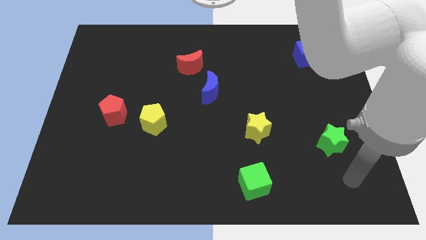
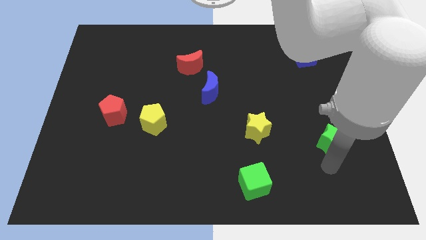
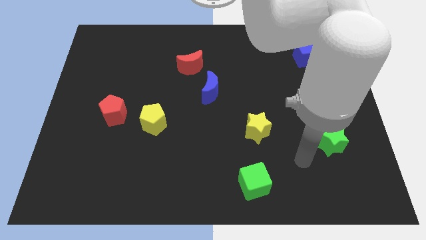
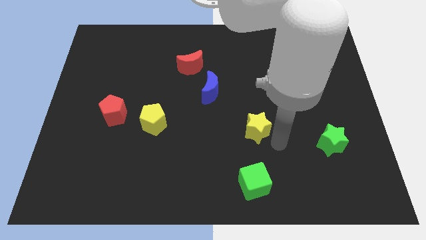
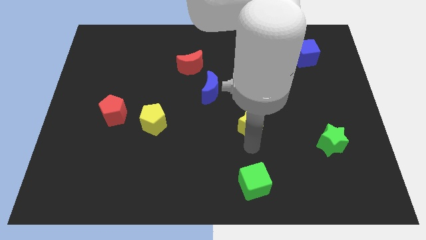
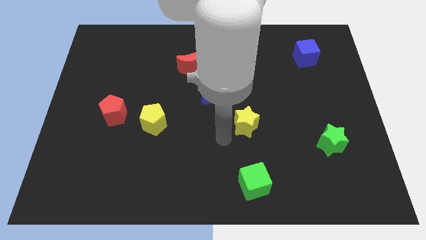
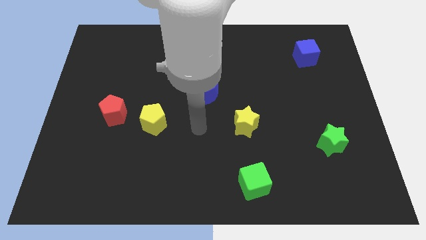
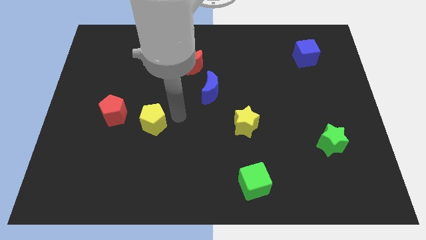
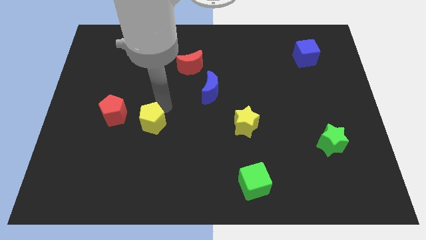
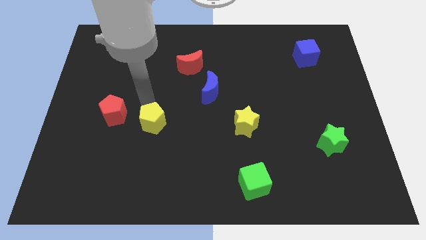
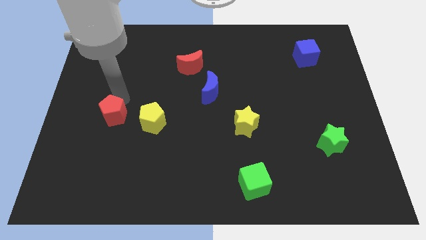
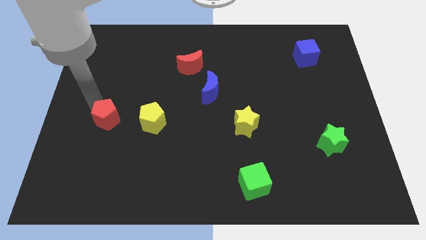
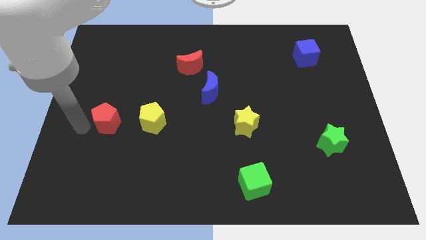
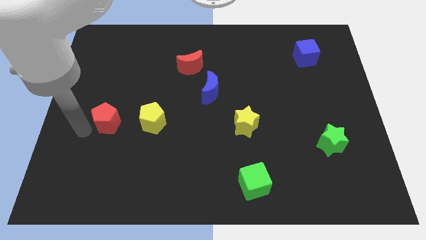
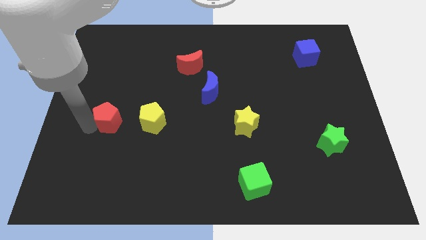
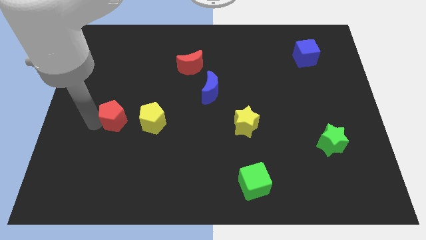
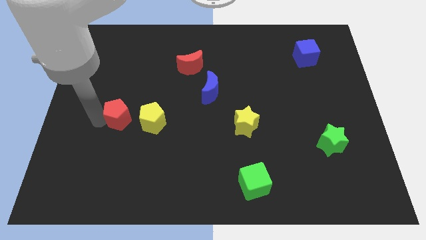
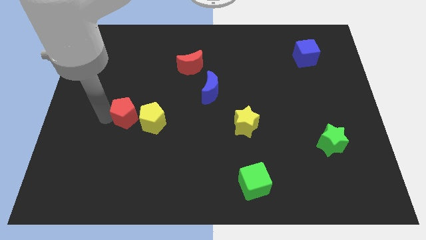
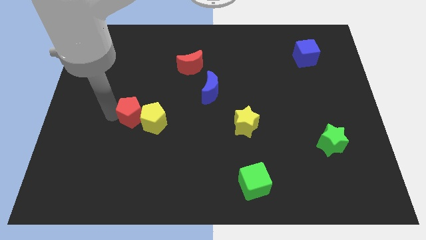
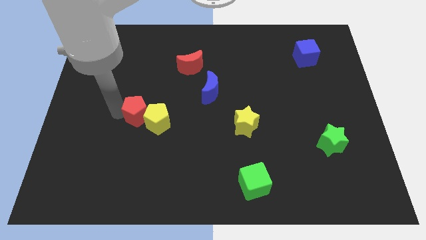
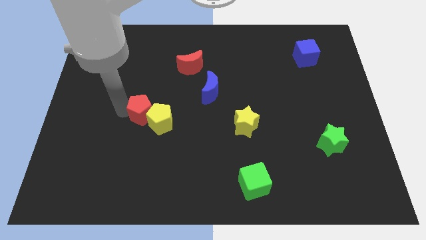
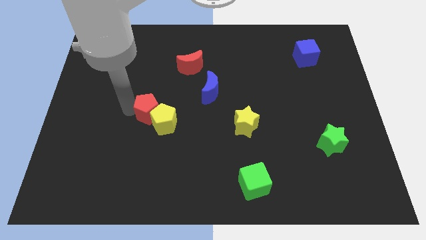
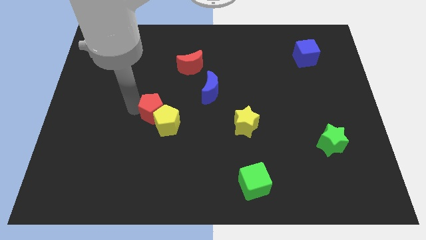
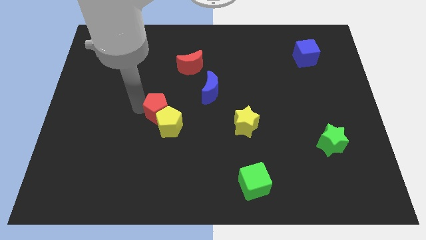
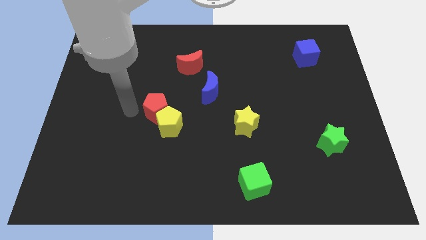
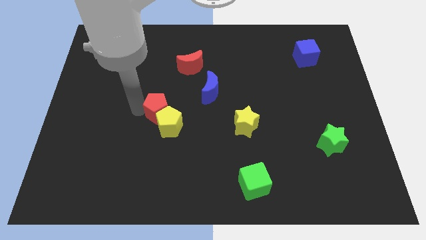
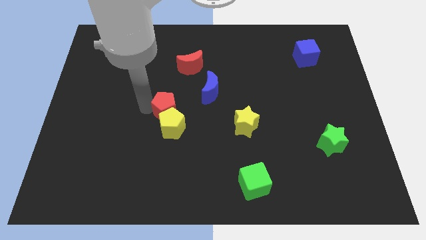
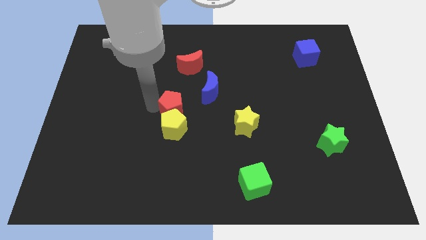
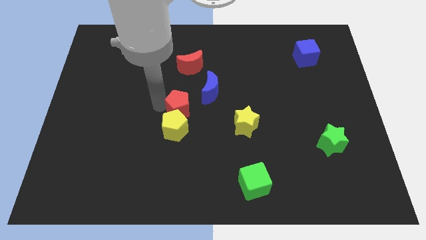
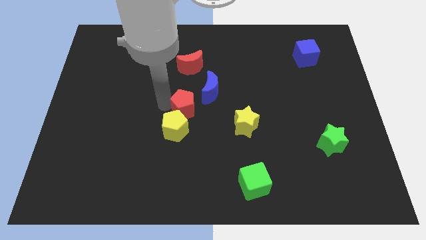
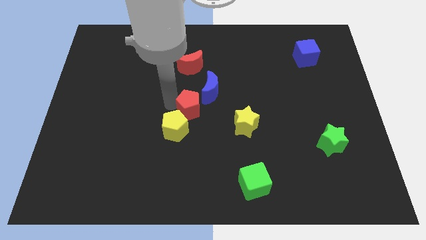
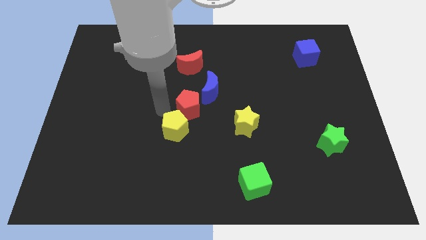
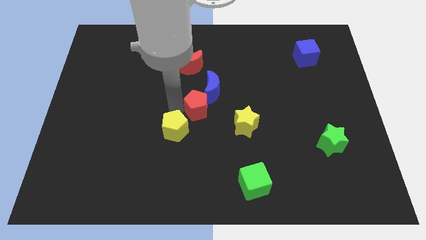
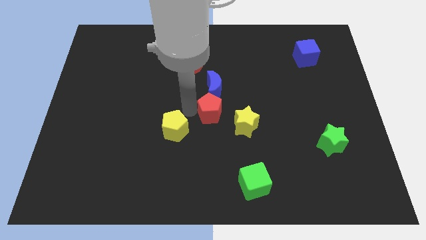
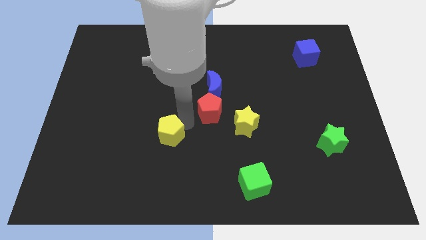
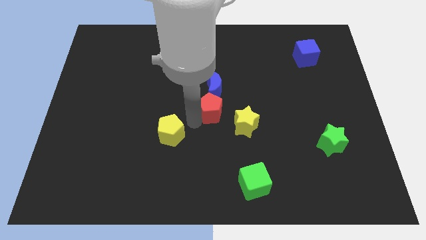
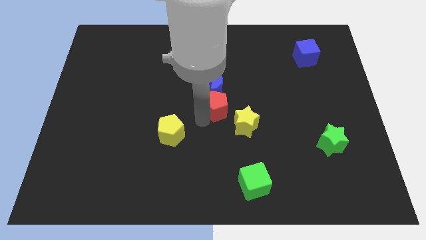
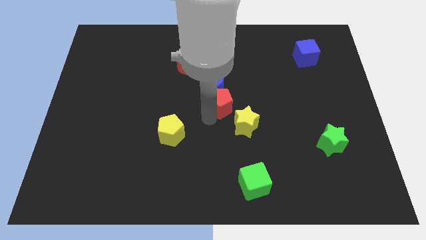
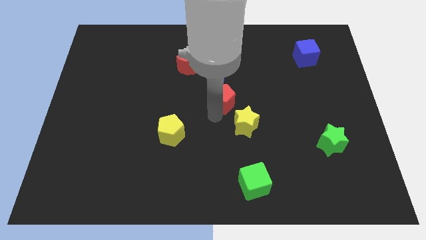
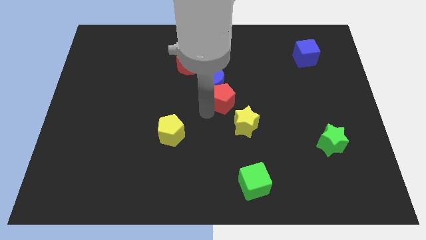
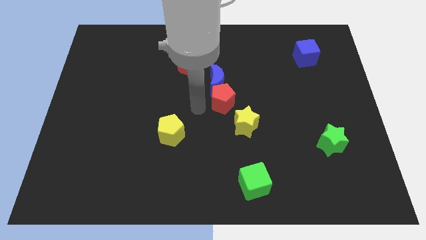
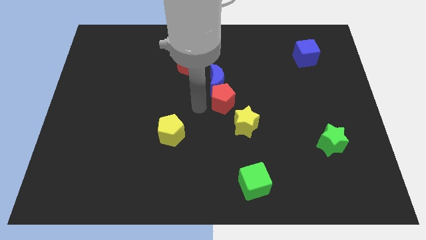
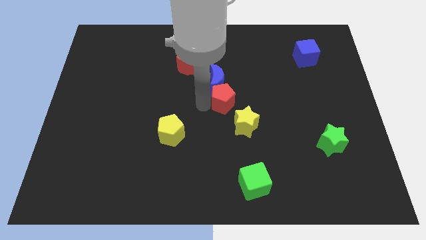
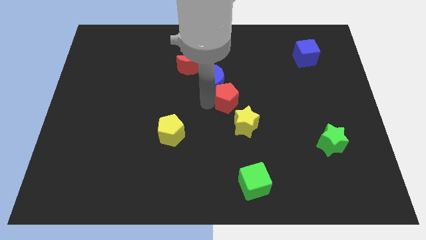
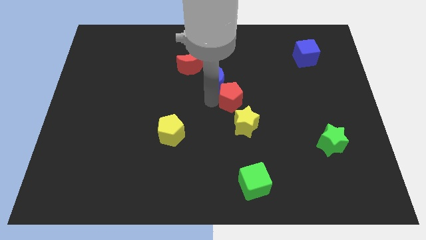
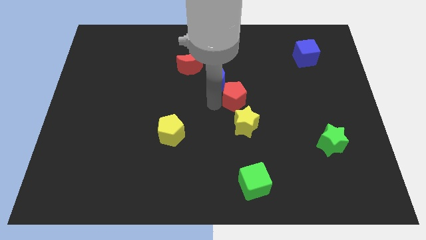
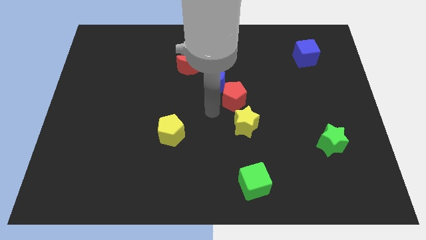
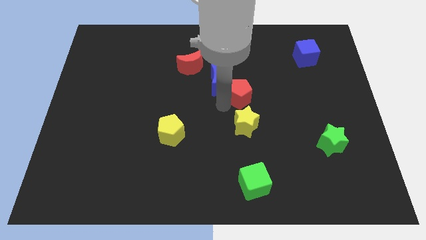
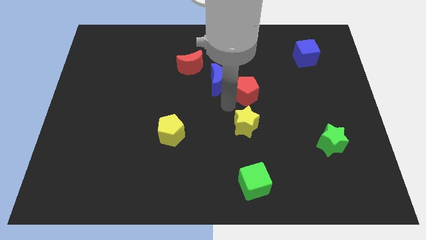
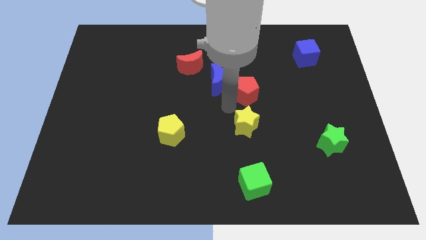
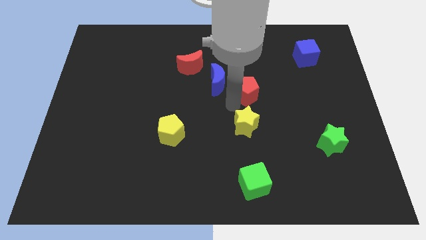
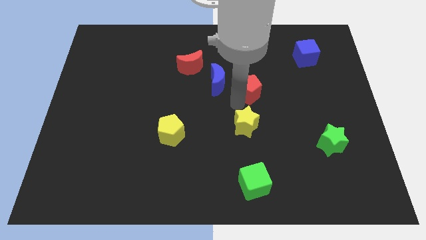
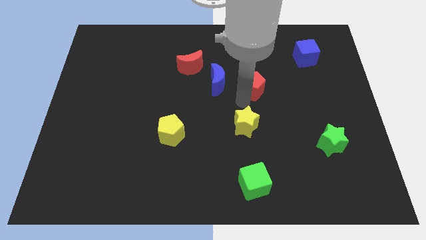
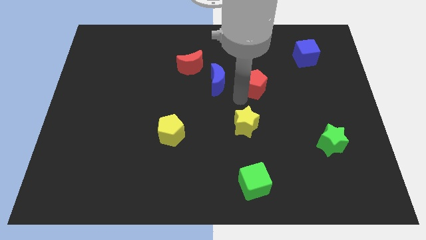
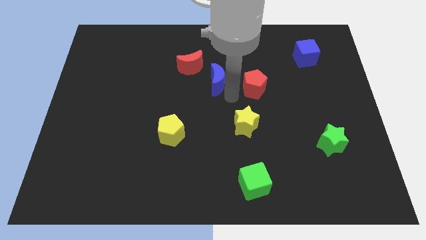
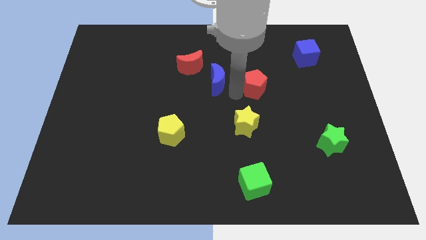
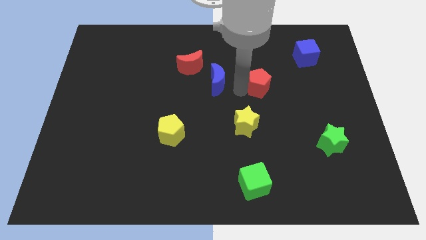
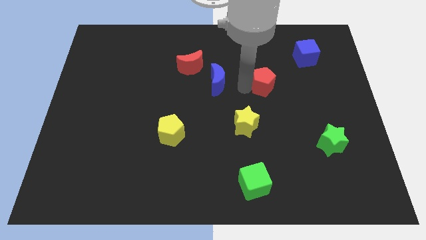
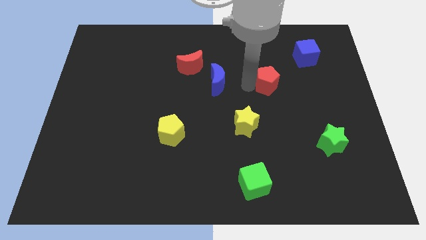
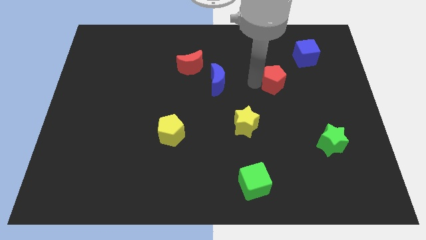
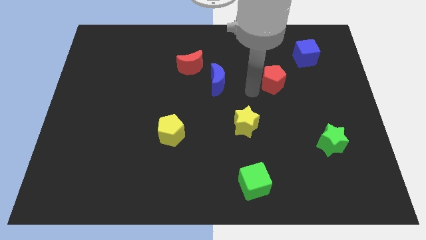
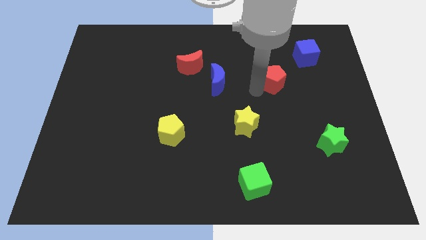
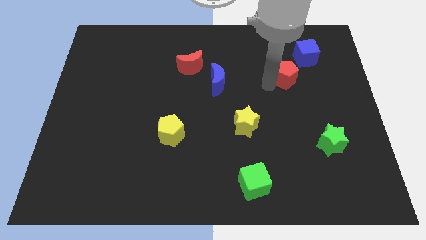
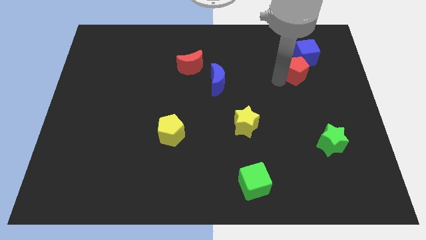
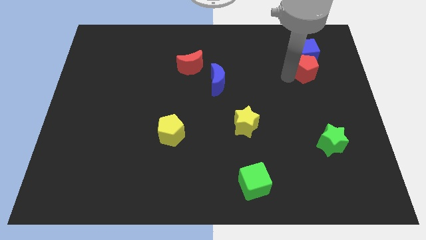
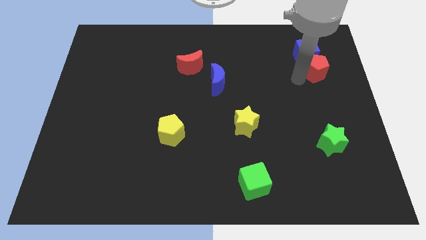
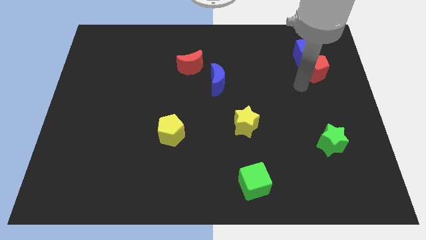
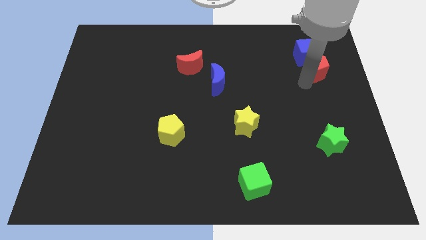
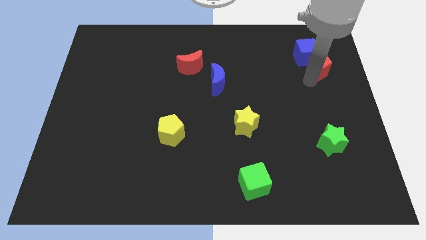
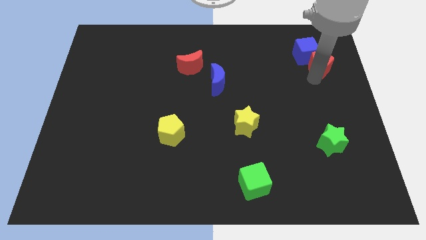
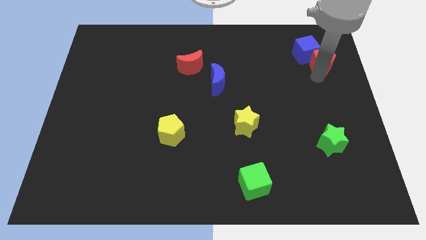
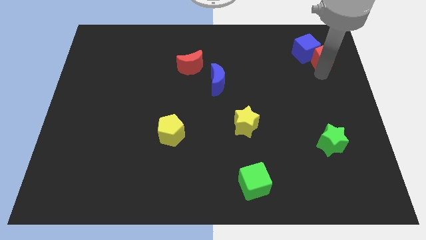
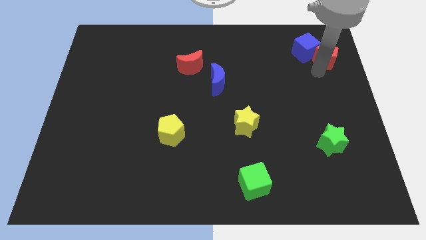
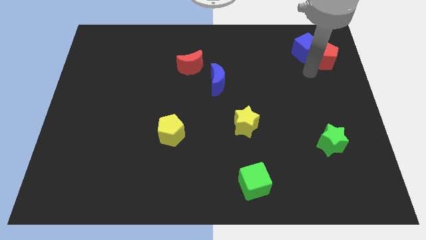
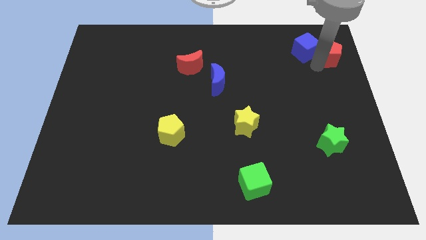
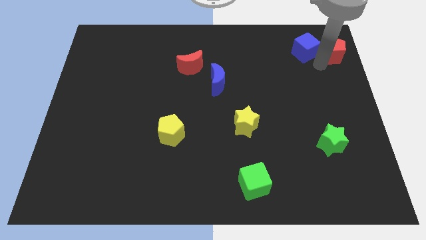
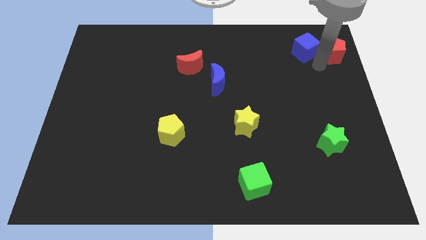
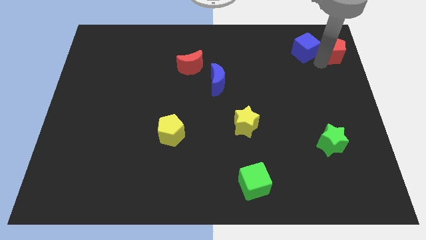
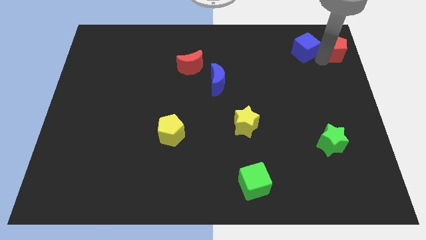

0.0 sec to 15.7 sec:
slide the red pentagon to the top right
